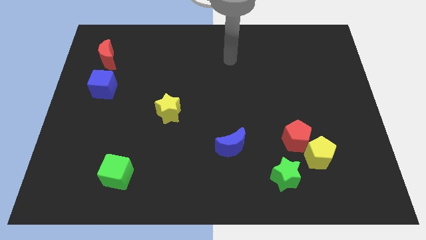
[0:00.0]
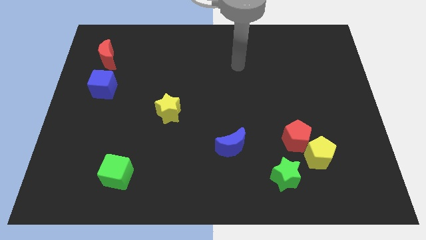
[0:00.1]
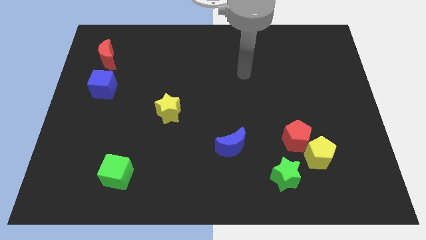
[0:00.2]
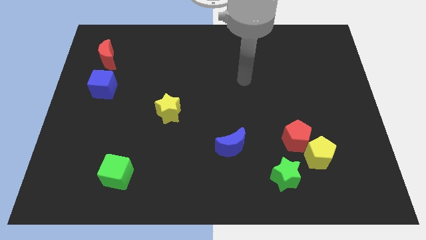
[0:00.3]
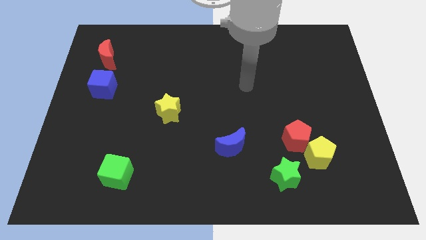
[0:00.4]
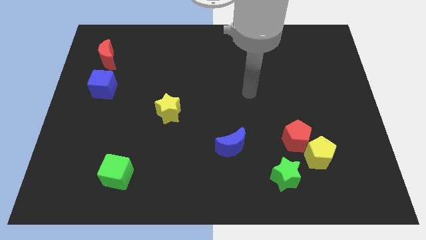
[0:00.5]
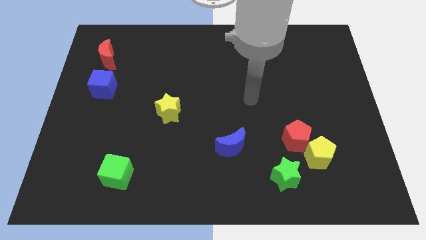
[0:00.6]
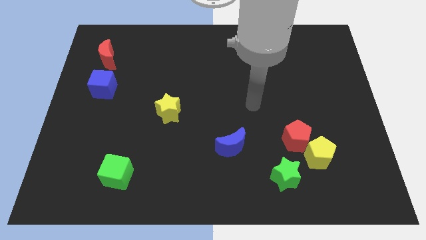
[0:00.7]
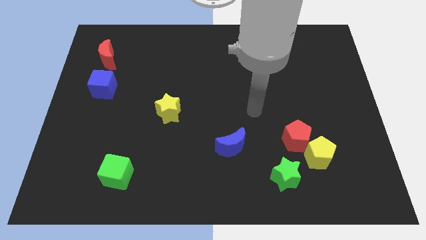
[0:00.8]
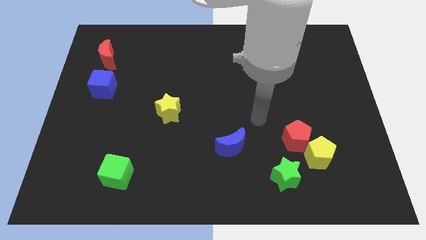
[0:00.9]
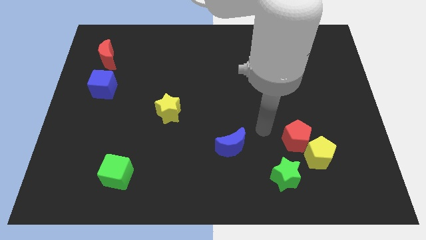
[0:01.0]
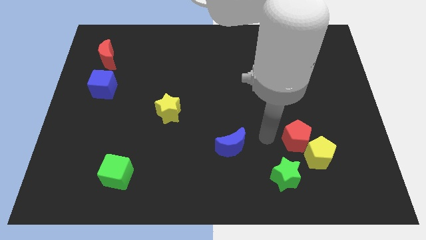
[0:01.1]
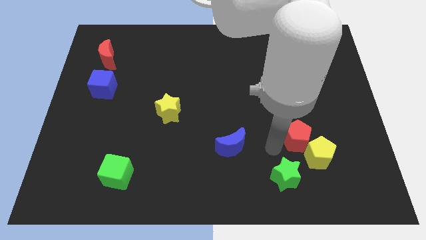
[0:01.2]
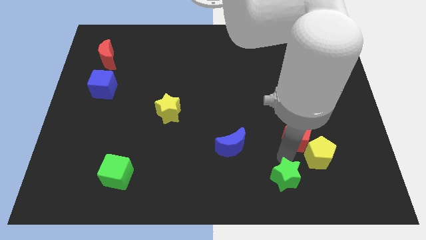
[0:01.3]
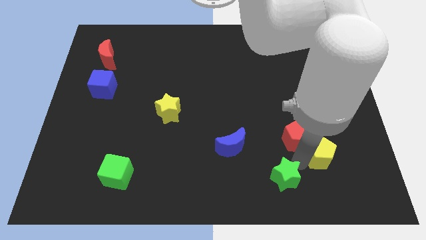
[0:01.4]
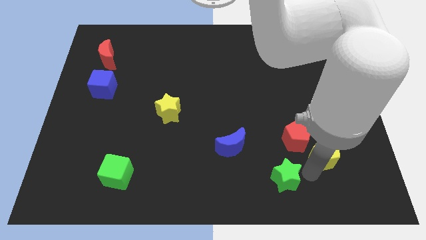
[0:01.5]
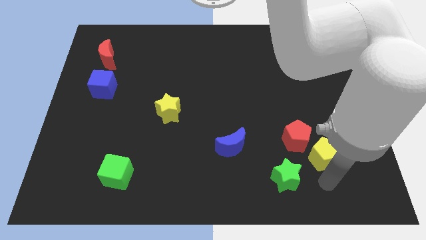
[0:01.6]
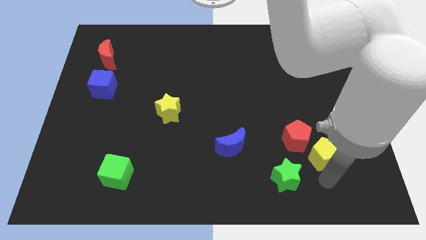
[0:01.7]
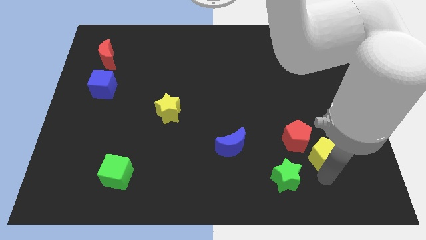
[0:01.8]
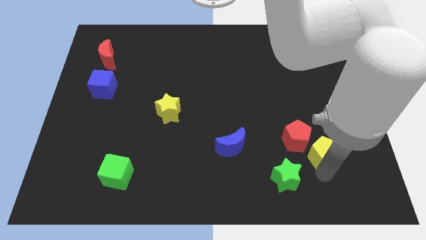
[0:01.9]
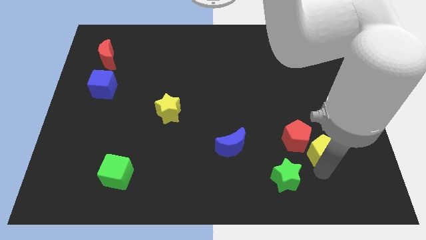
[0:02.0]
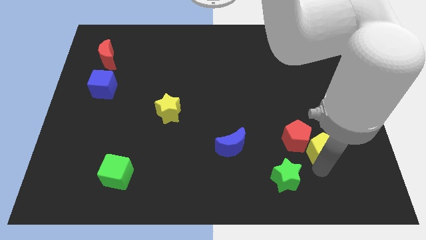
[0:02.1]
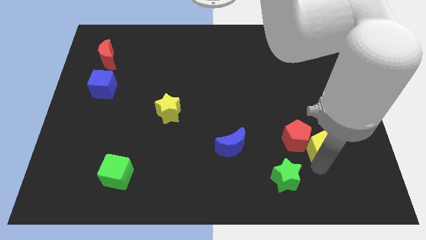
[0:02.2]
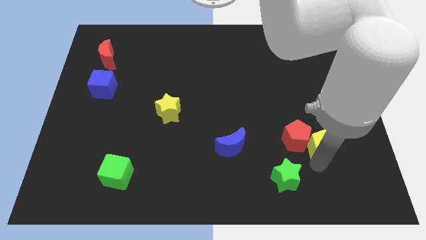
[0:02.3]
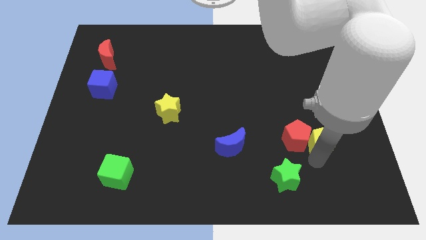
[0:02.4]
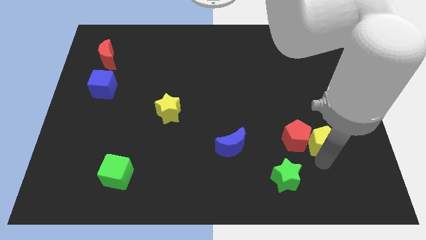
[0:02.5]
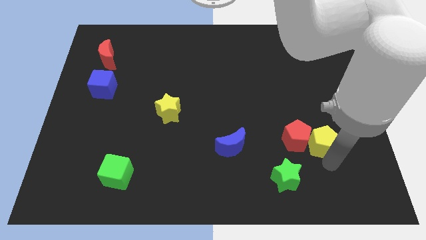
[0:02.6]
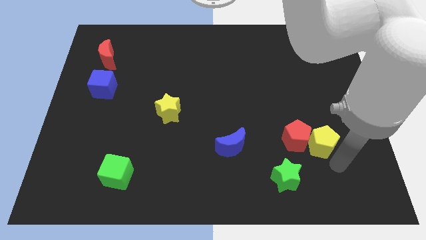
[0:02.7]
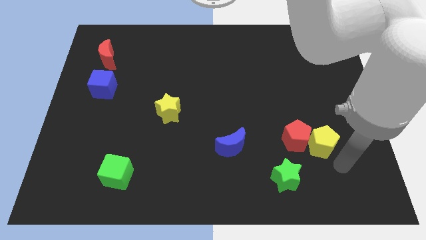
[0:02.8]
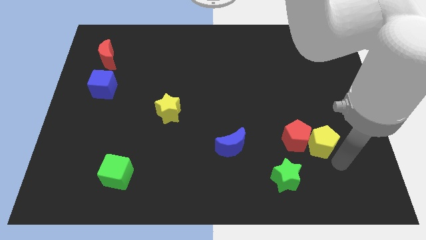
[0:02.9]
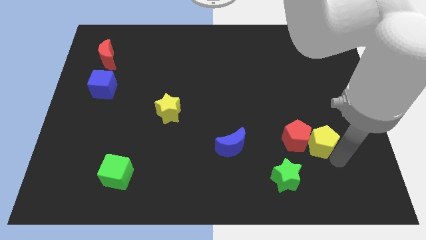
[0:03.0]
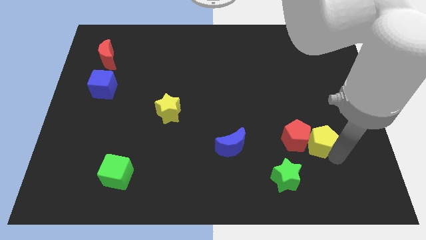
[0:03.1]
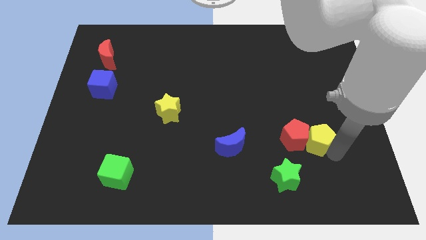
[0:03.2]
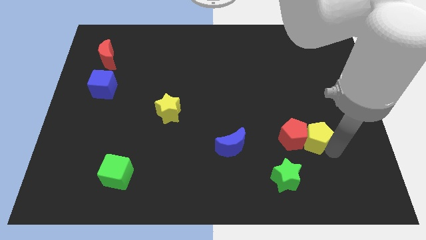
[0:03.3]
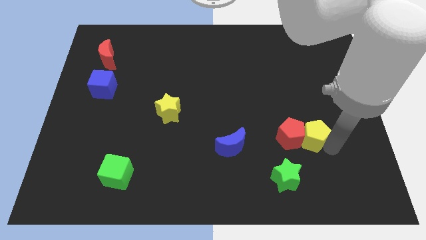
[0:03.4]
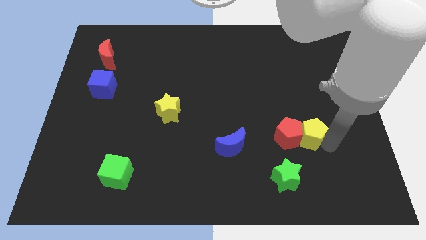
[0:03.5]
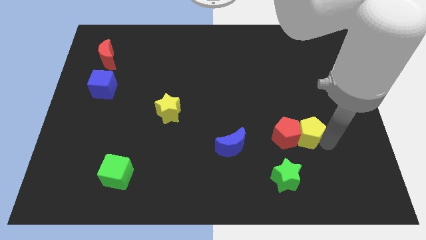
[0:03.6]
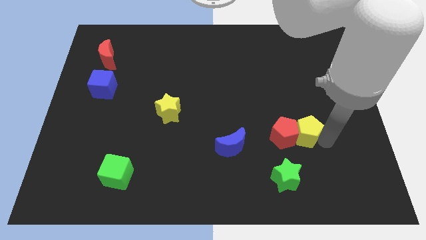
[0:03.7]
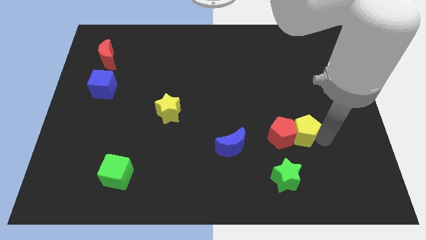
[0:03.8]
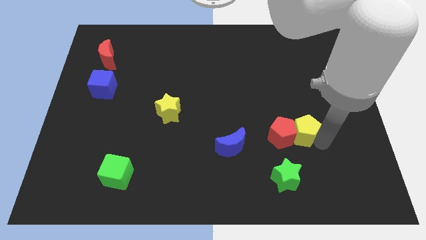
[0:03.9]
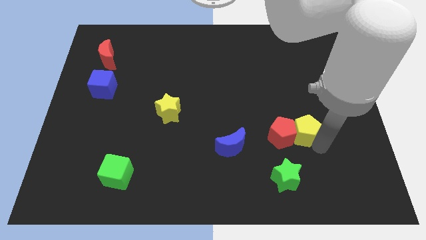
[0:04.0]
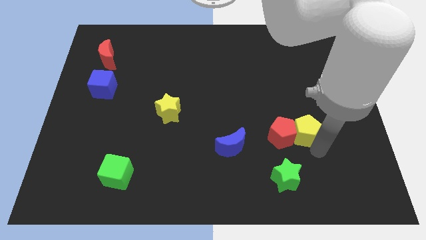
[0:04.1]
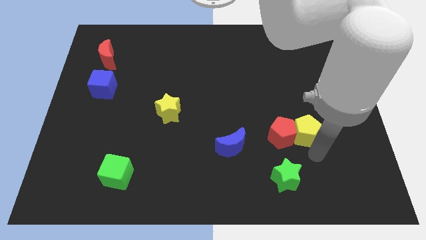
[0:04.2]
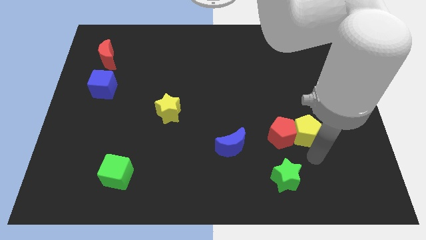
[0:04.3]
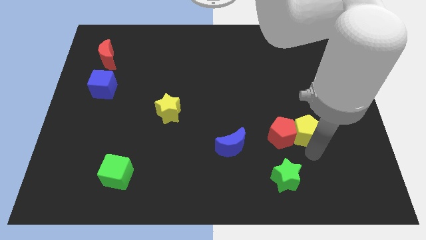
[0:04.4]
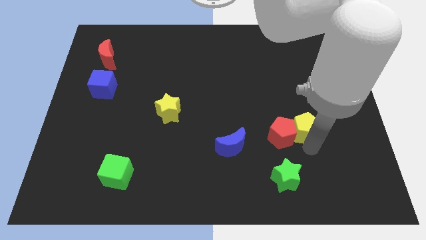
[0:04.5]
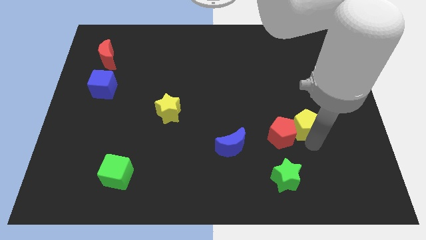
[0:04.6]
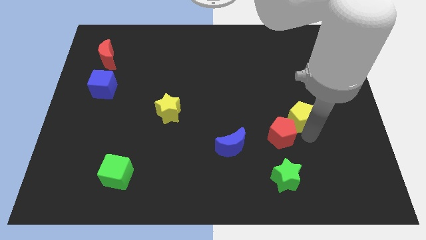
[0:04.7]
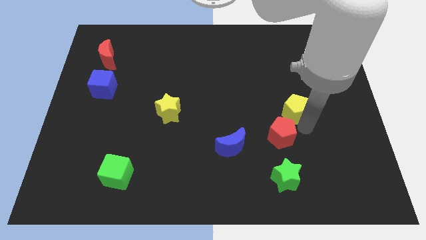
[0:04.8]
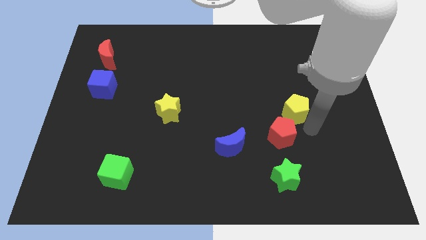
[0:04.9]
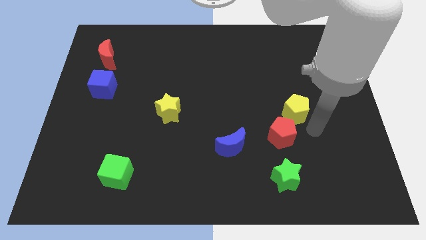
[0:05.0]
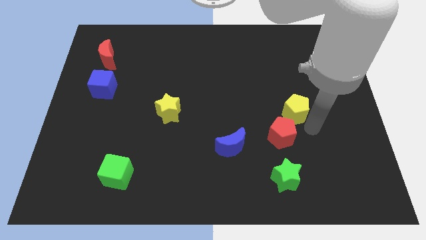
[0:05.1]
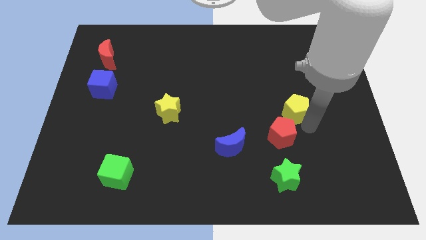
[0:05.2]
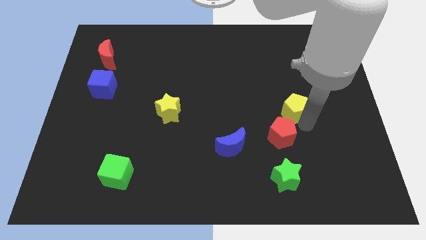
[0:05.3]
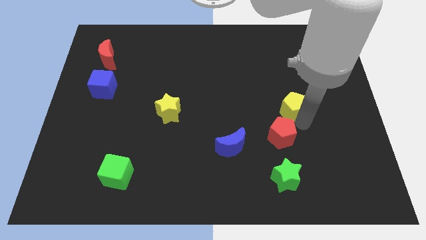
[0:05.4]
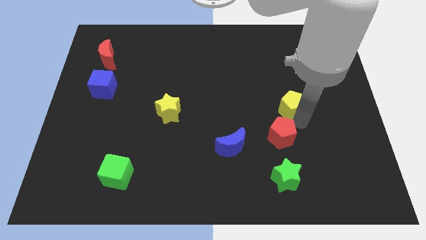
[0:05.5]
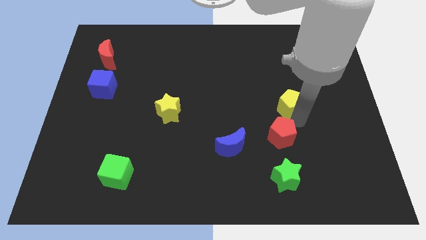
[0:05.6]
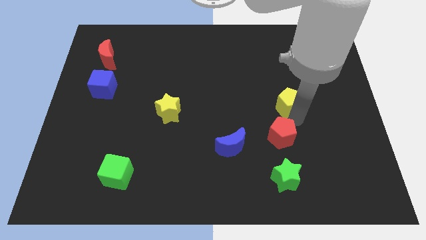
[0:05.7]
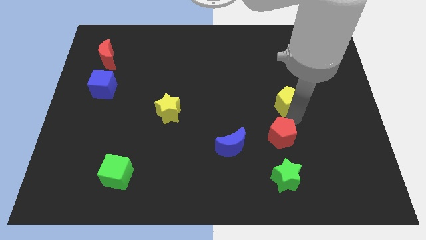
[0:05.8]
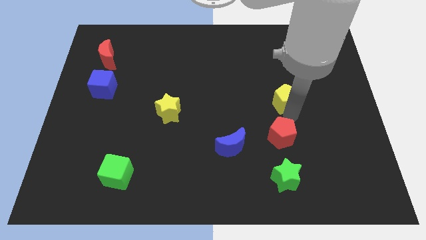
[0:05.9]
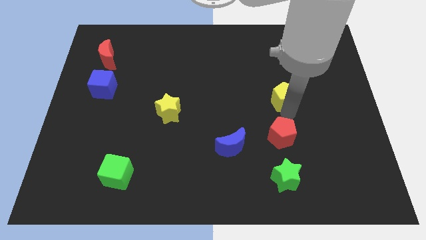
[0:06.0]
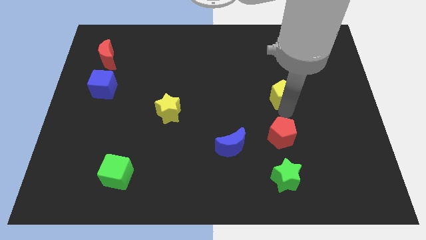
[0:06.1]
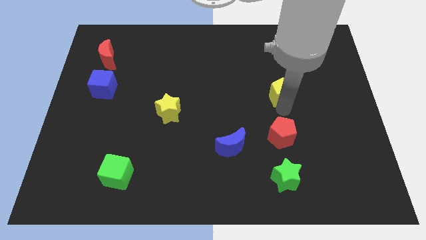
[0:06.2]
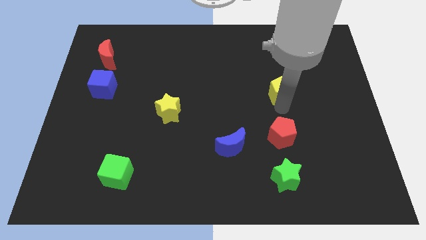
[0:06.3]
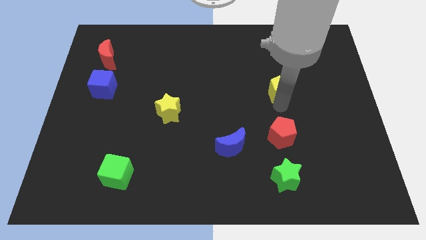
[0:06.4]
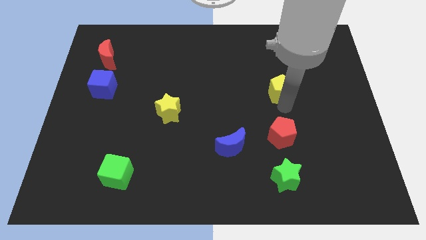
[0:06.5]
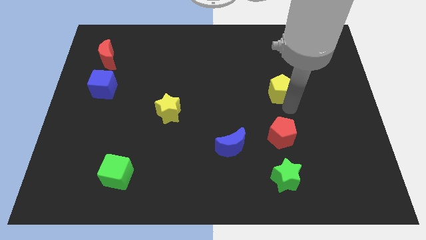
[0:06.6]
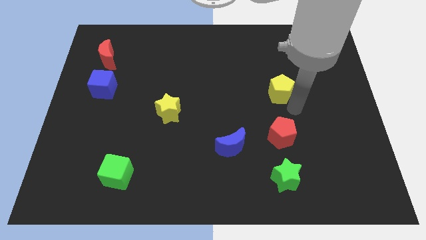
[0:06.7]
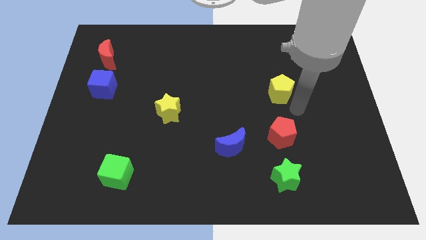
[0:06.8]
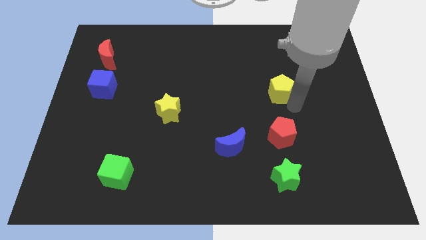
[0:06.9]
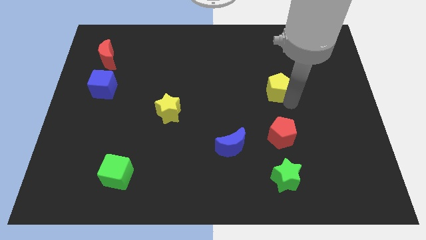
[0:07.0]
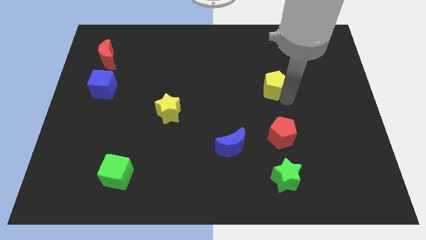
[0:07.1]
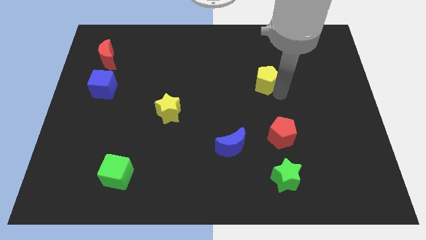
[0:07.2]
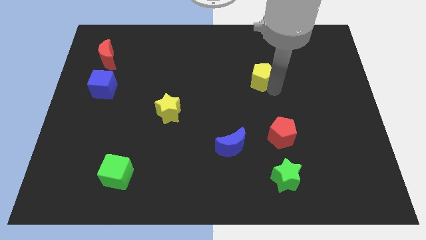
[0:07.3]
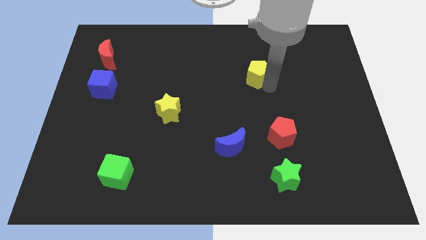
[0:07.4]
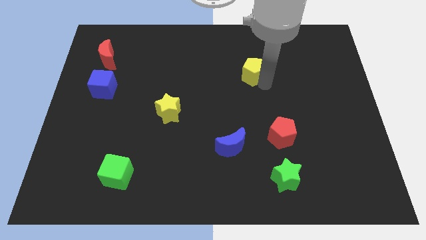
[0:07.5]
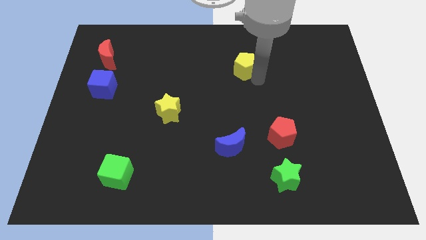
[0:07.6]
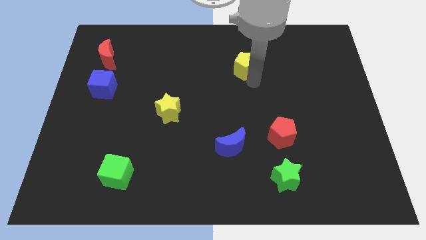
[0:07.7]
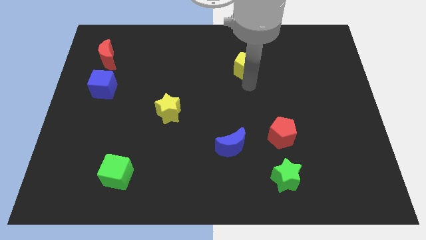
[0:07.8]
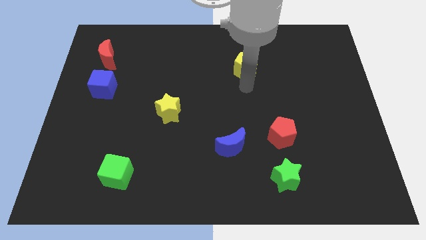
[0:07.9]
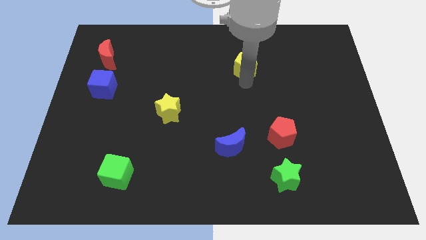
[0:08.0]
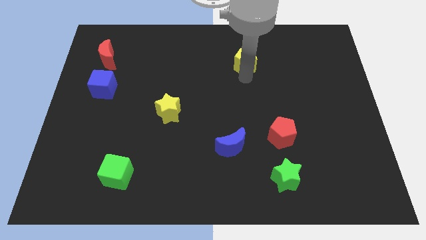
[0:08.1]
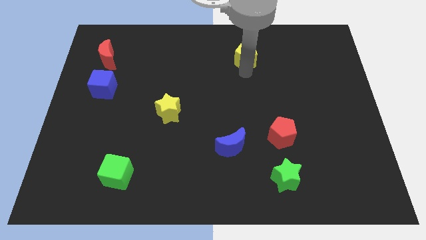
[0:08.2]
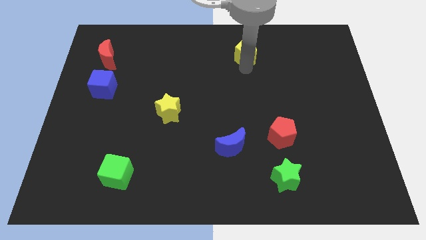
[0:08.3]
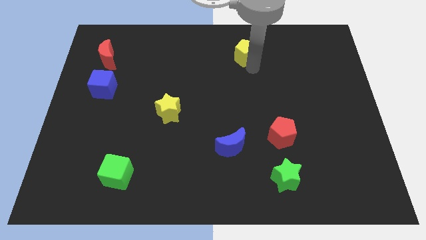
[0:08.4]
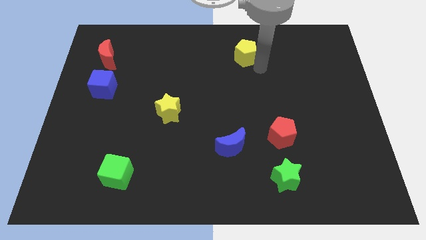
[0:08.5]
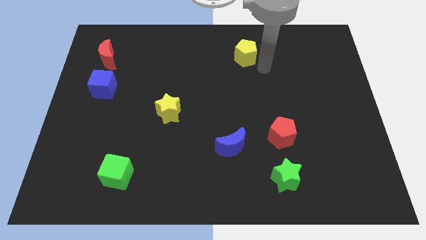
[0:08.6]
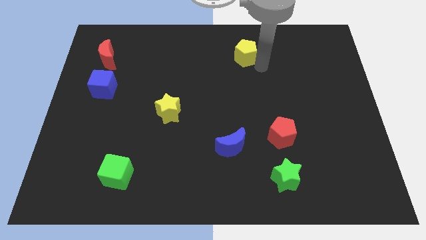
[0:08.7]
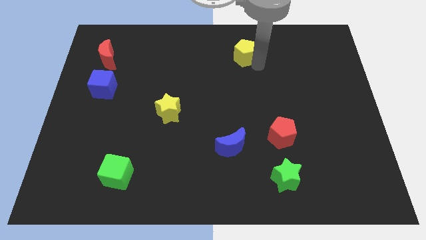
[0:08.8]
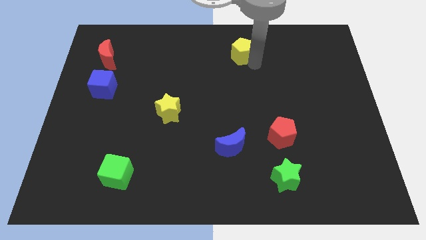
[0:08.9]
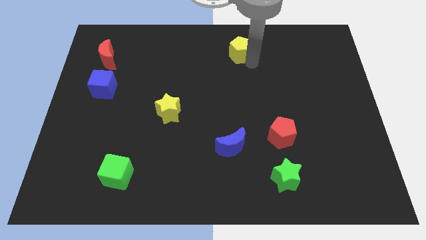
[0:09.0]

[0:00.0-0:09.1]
slide the yellow pentagon to the top
